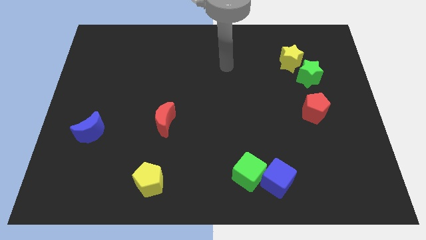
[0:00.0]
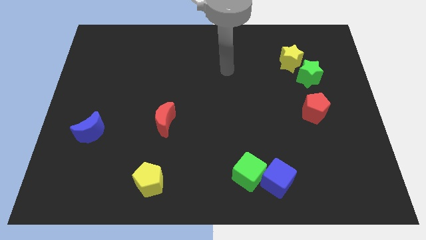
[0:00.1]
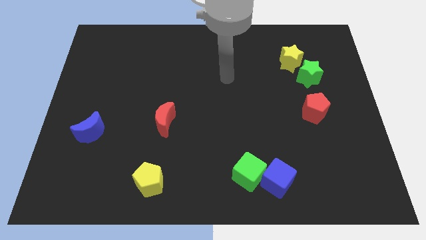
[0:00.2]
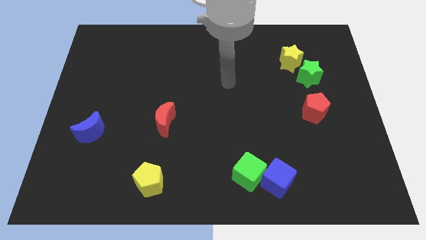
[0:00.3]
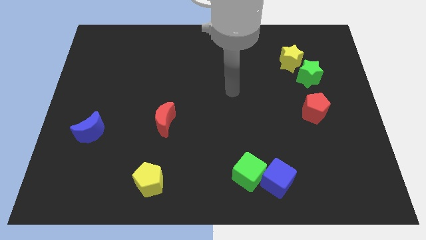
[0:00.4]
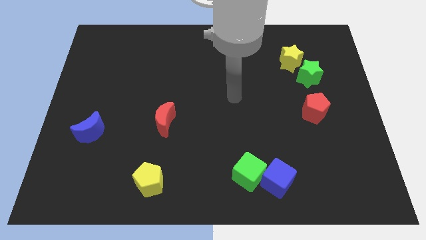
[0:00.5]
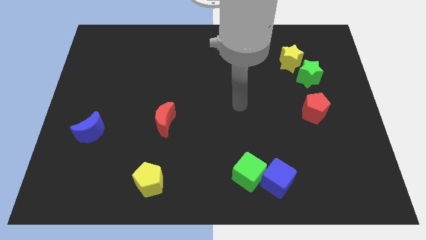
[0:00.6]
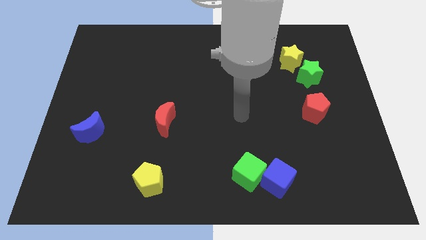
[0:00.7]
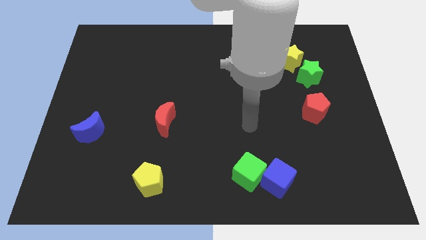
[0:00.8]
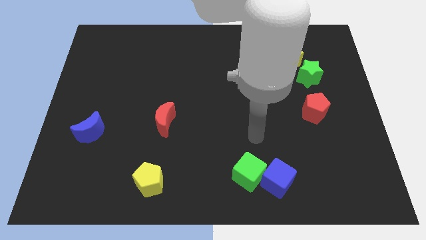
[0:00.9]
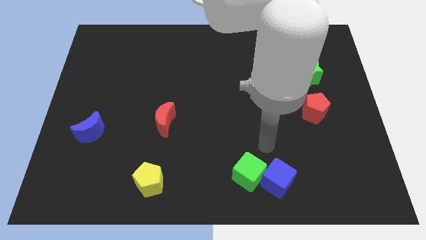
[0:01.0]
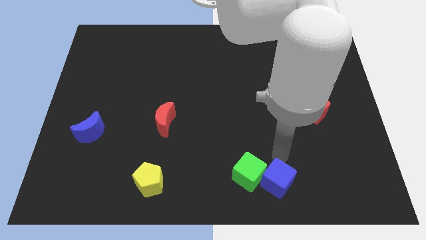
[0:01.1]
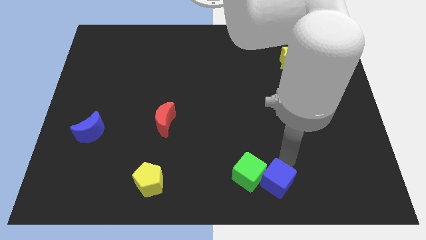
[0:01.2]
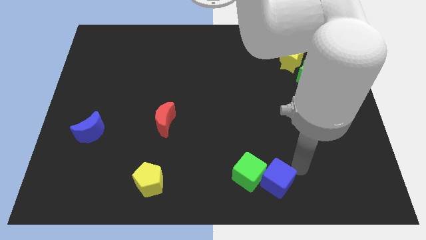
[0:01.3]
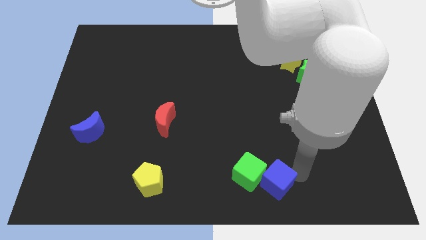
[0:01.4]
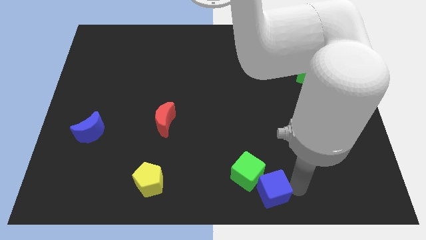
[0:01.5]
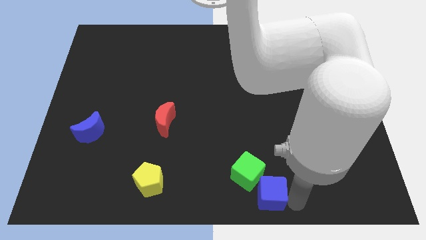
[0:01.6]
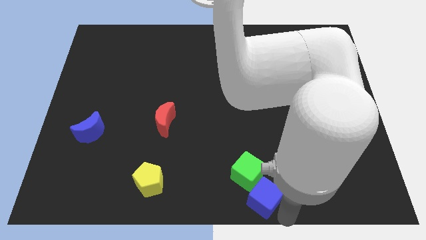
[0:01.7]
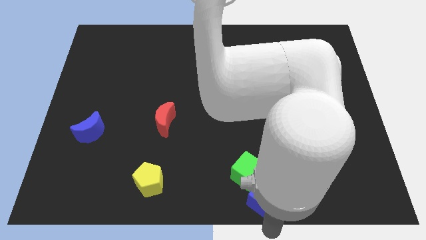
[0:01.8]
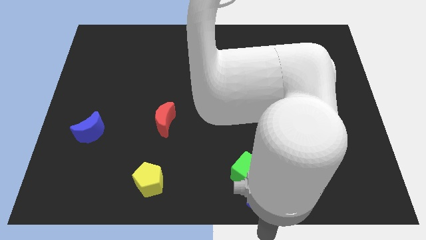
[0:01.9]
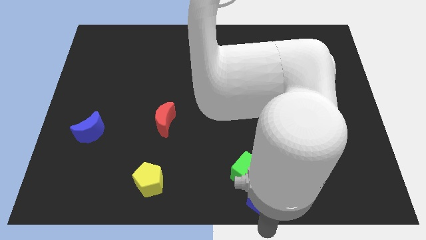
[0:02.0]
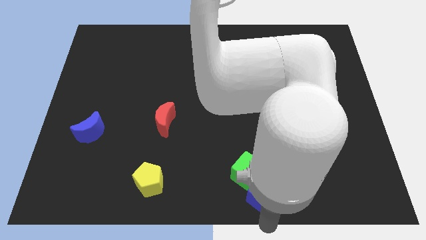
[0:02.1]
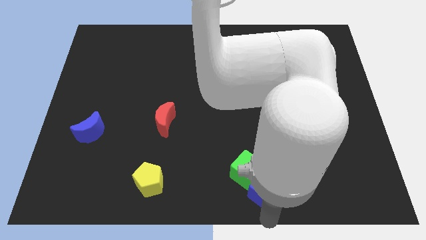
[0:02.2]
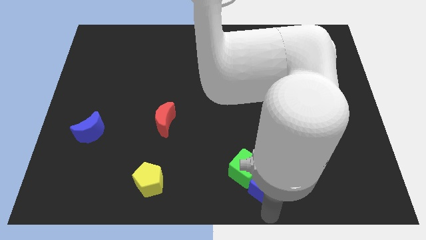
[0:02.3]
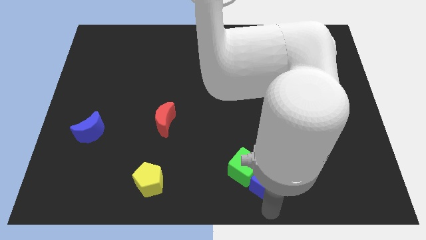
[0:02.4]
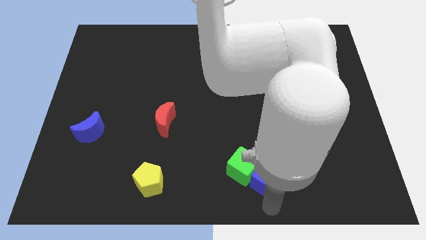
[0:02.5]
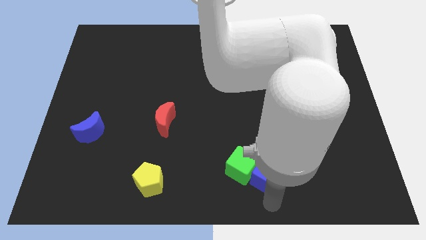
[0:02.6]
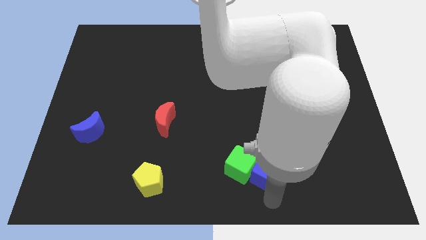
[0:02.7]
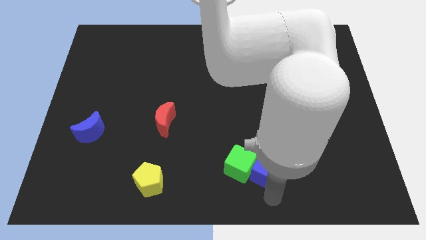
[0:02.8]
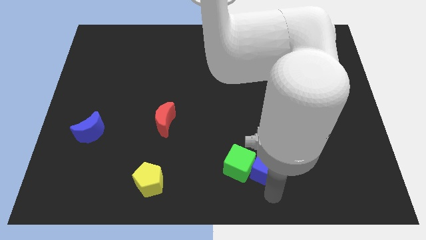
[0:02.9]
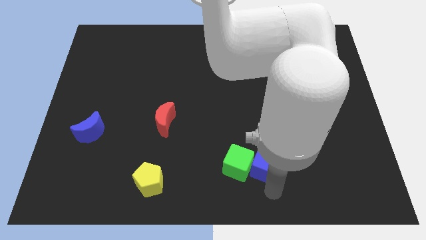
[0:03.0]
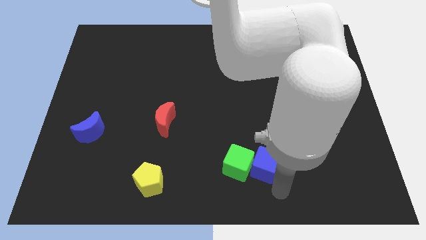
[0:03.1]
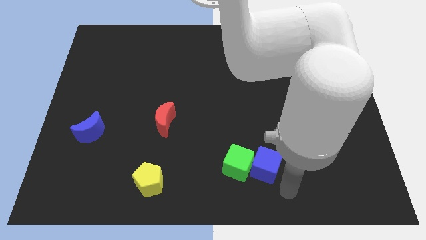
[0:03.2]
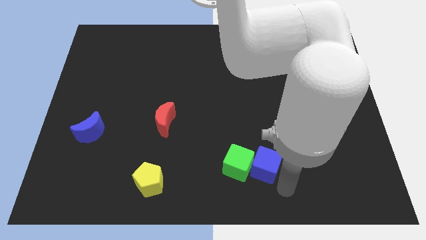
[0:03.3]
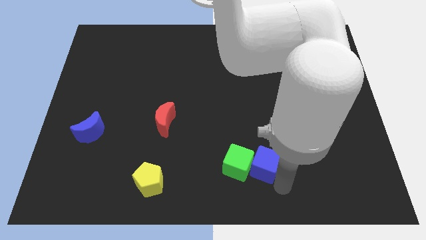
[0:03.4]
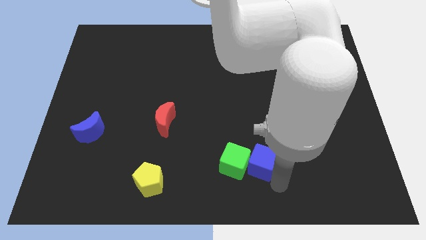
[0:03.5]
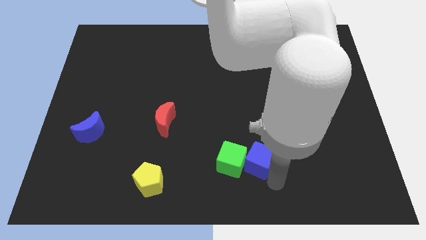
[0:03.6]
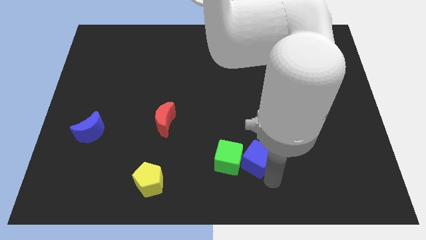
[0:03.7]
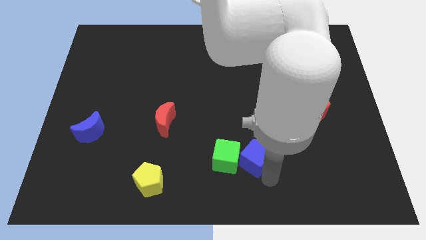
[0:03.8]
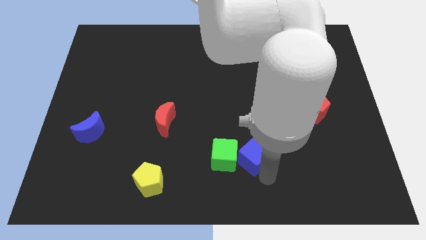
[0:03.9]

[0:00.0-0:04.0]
slightly push the blue cube upwards and to the left

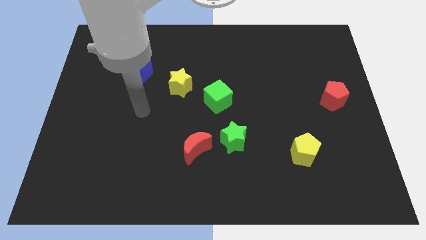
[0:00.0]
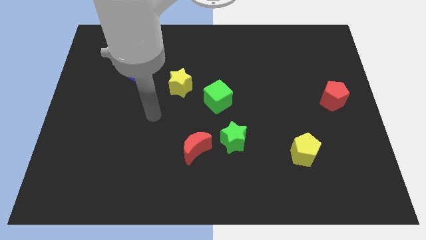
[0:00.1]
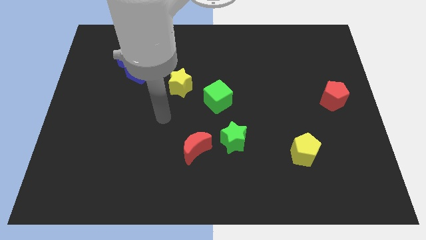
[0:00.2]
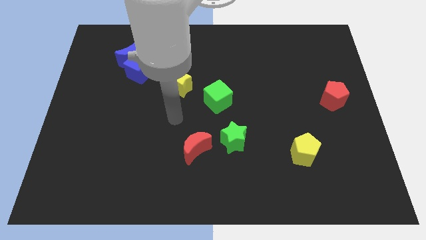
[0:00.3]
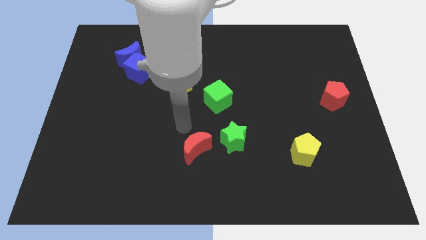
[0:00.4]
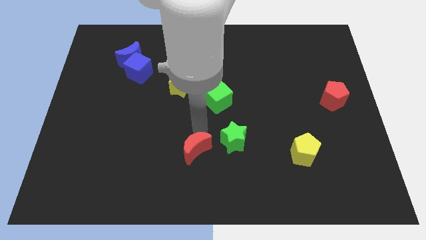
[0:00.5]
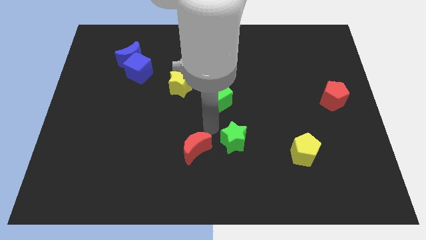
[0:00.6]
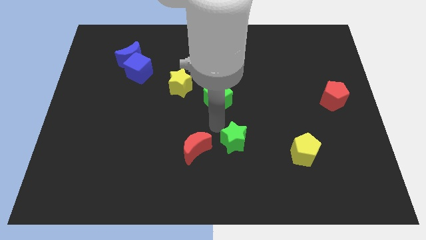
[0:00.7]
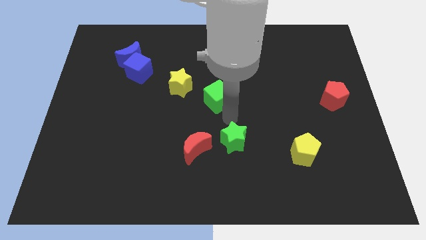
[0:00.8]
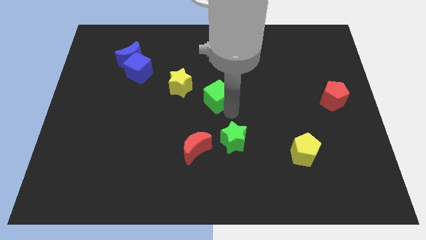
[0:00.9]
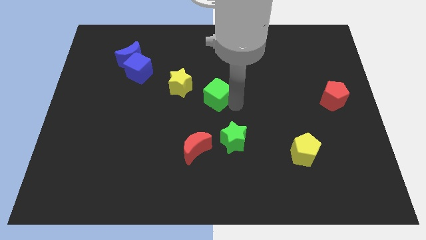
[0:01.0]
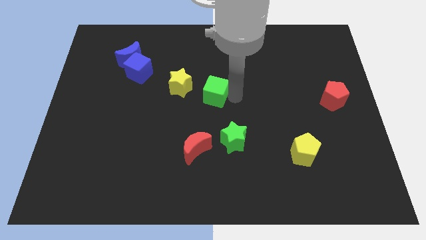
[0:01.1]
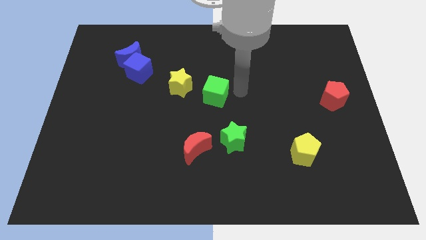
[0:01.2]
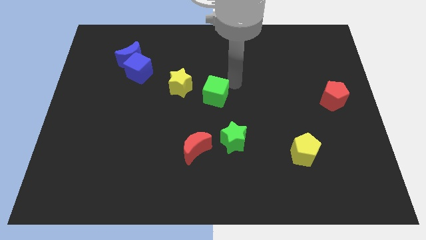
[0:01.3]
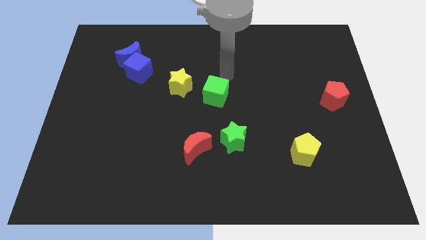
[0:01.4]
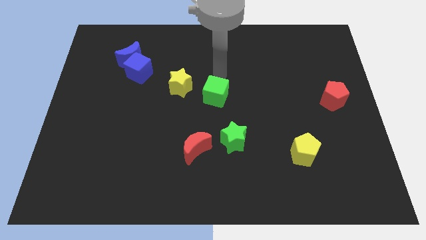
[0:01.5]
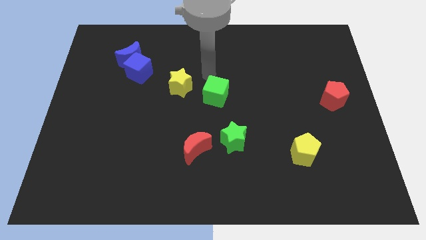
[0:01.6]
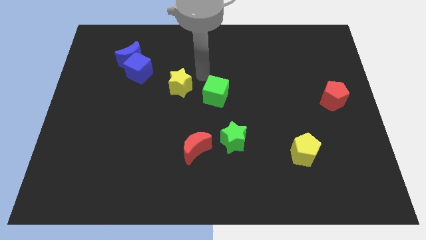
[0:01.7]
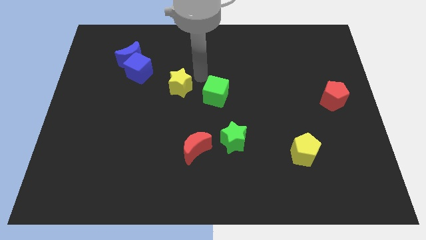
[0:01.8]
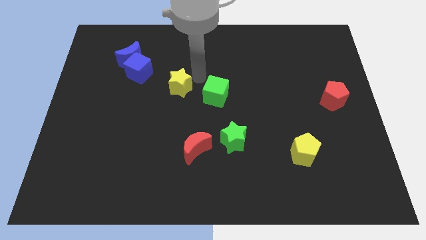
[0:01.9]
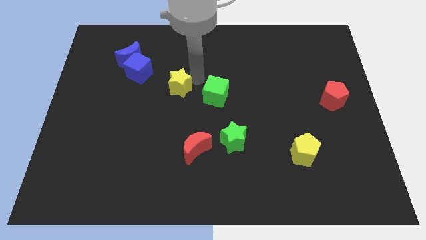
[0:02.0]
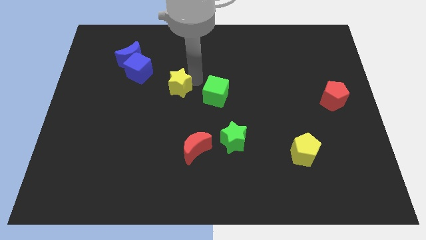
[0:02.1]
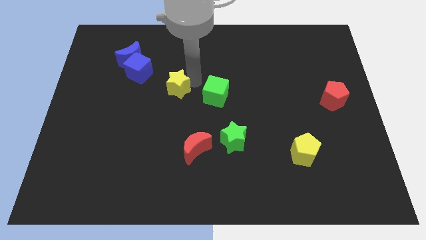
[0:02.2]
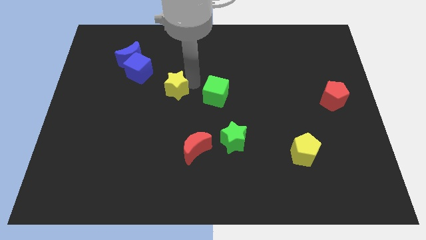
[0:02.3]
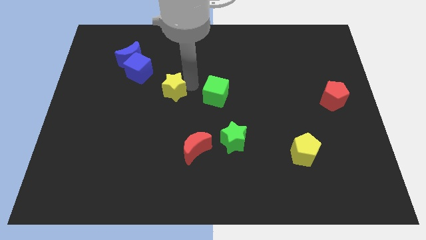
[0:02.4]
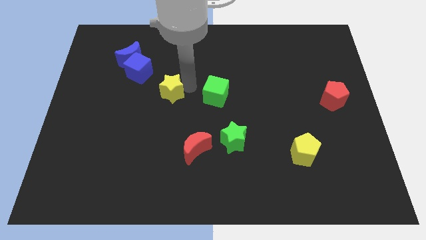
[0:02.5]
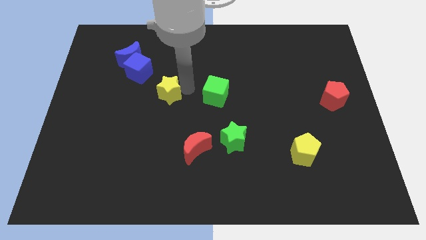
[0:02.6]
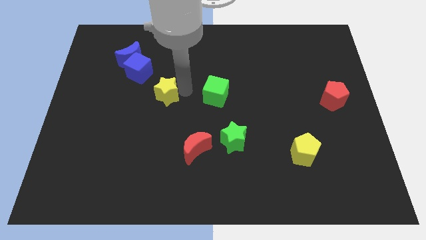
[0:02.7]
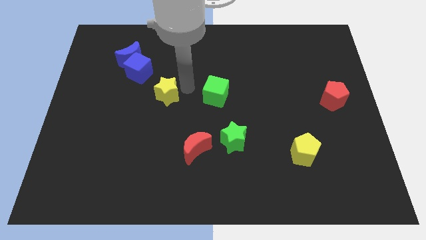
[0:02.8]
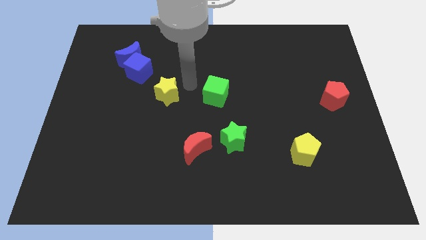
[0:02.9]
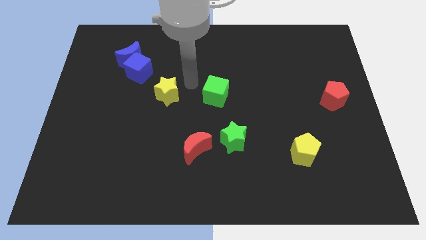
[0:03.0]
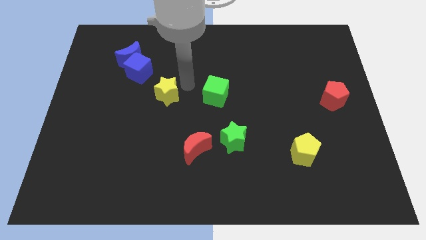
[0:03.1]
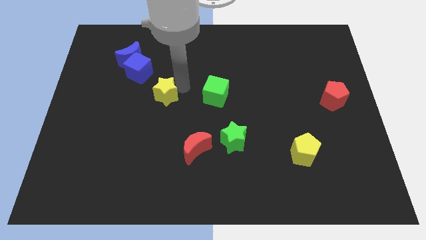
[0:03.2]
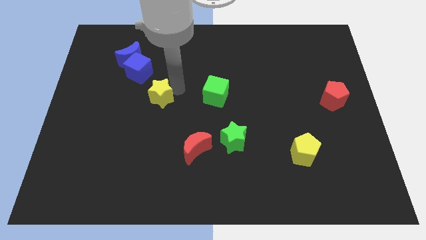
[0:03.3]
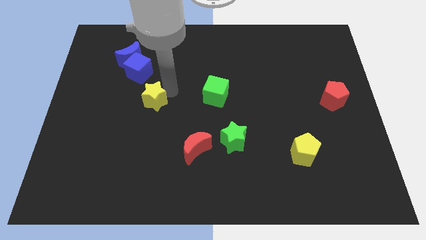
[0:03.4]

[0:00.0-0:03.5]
slightly slide the yellow star down and to the left diagonally

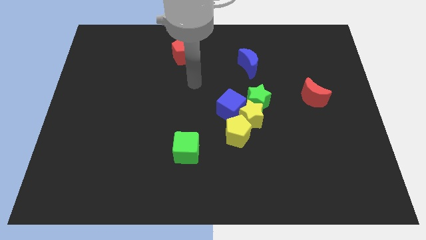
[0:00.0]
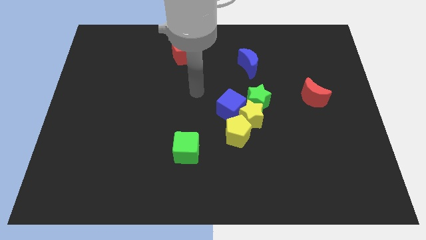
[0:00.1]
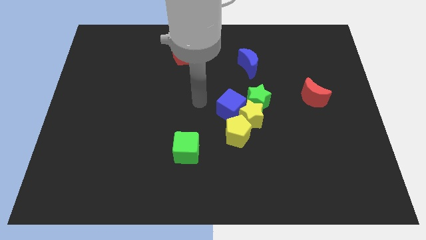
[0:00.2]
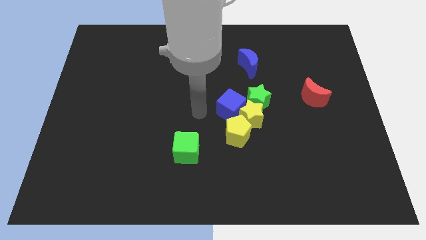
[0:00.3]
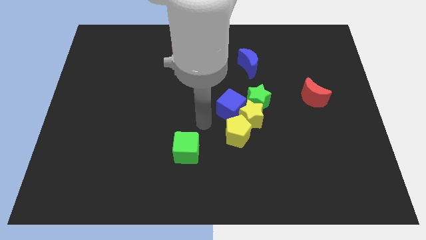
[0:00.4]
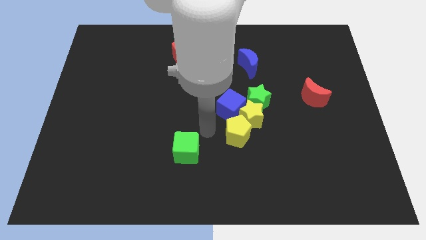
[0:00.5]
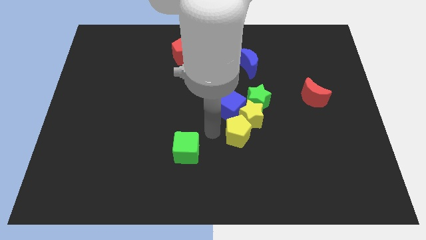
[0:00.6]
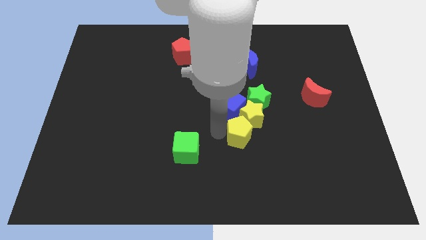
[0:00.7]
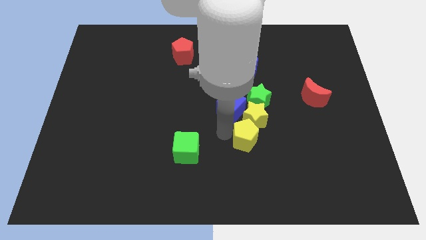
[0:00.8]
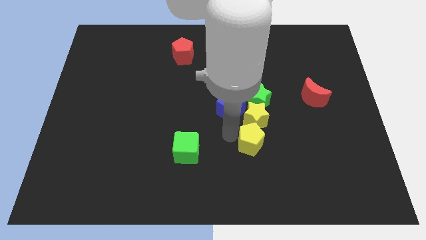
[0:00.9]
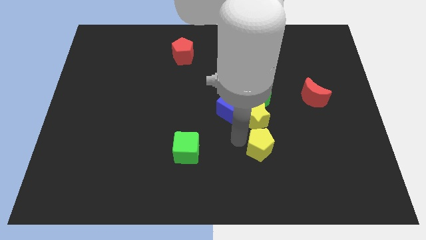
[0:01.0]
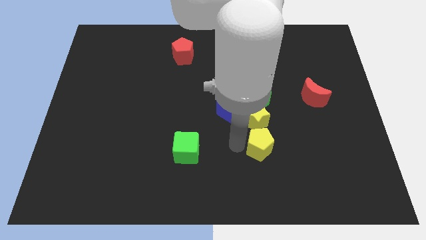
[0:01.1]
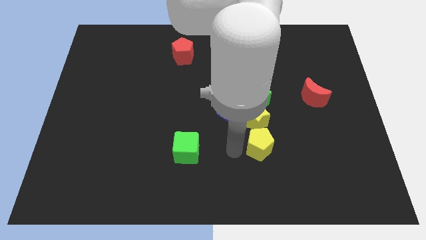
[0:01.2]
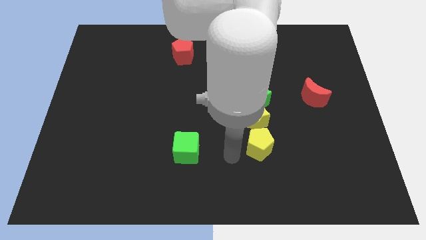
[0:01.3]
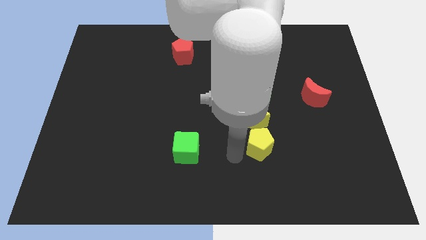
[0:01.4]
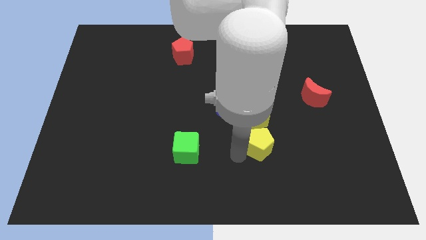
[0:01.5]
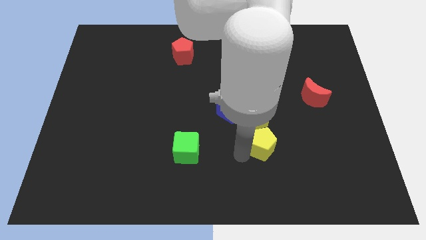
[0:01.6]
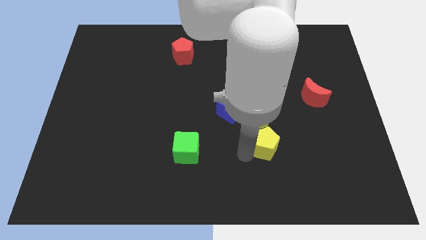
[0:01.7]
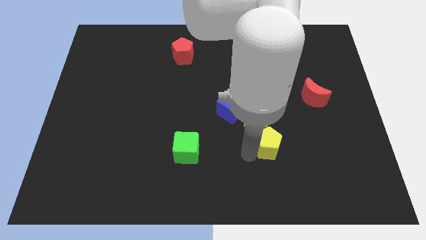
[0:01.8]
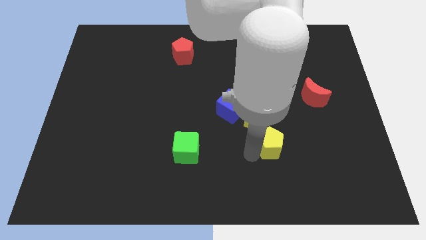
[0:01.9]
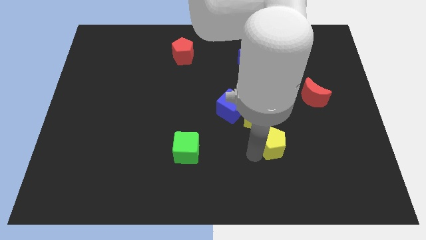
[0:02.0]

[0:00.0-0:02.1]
slide the yellow pentagon right a bit
